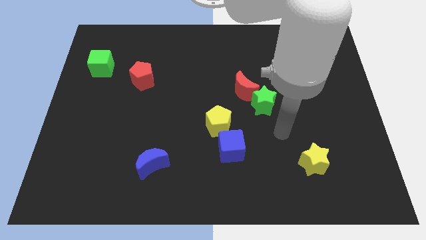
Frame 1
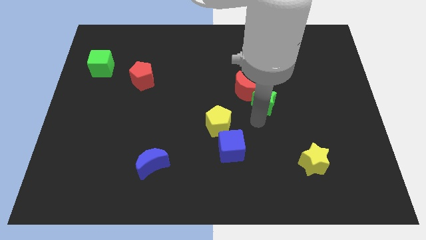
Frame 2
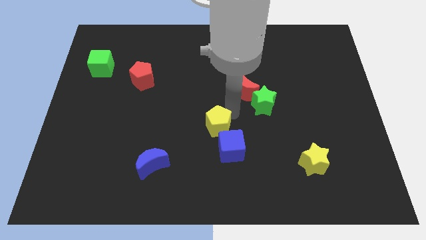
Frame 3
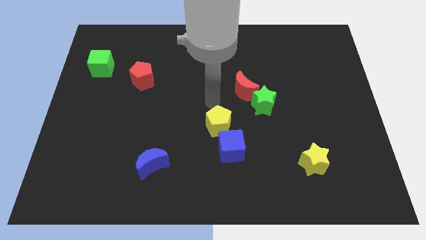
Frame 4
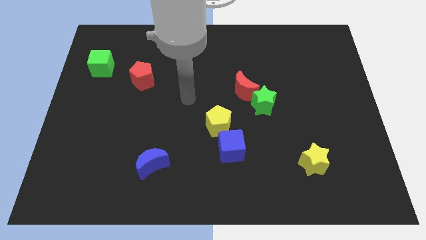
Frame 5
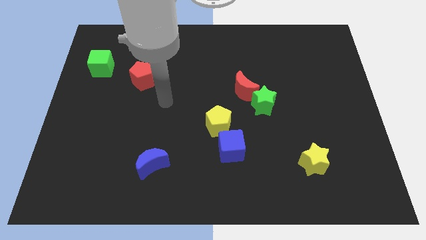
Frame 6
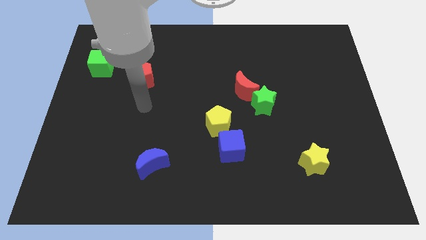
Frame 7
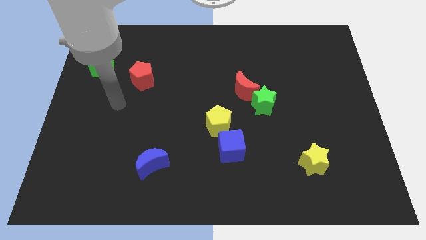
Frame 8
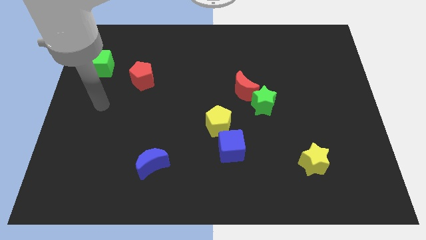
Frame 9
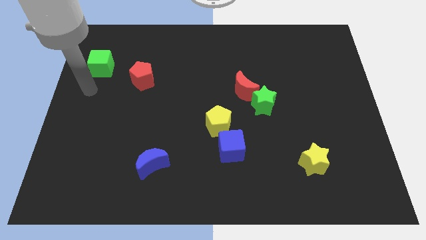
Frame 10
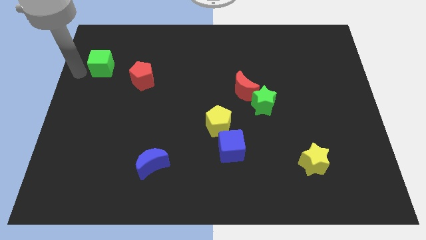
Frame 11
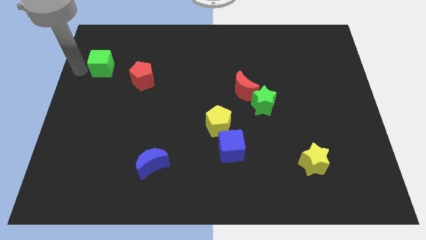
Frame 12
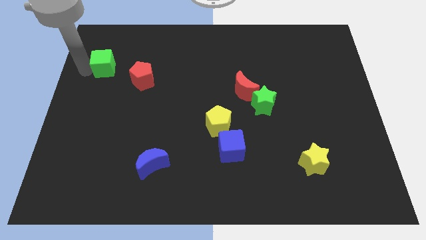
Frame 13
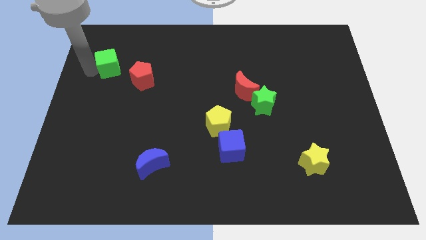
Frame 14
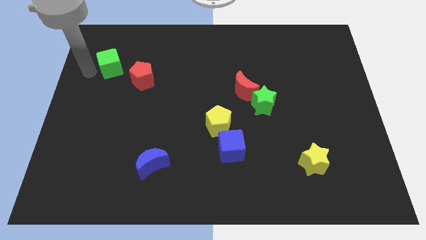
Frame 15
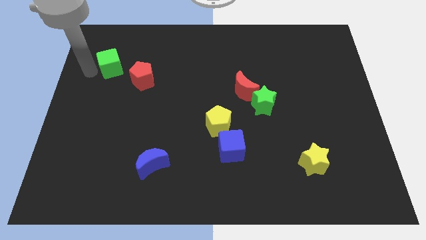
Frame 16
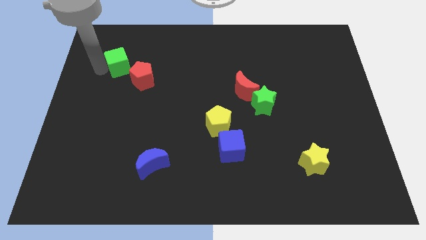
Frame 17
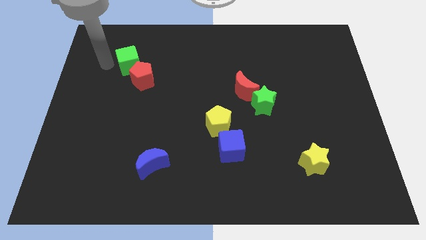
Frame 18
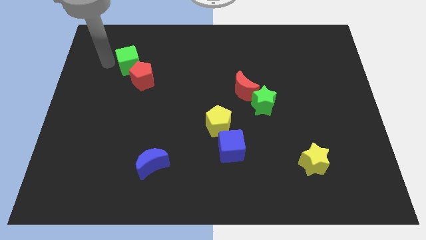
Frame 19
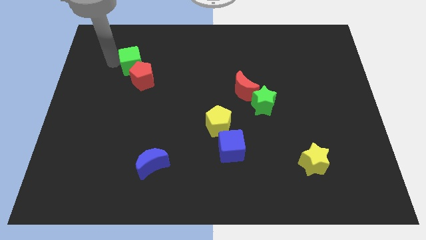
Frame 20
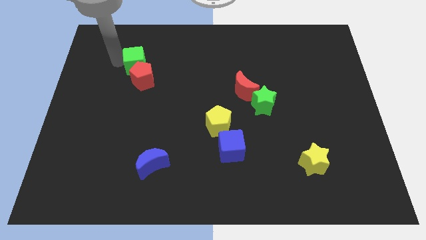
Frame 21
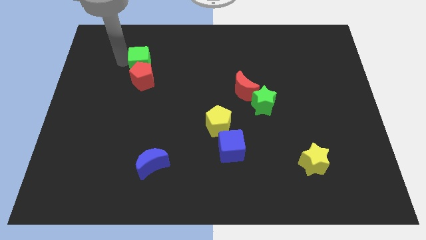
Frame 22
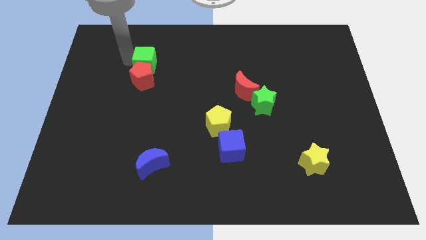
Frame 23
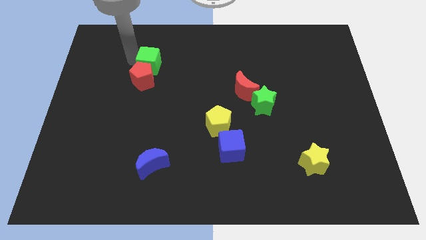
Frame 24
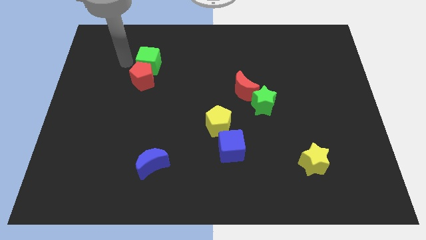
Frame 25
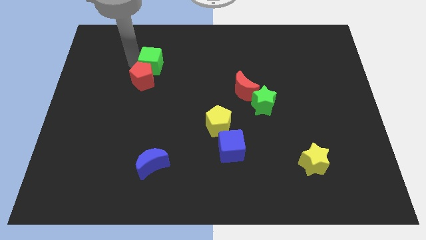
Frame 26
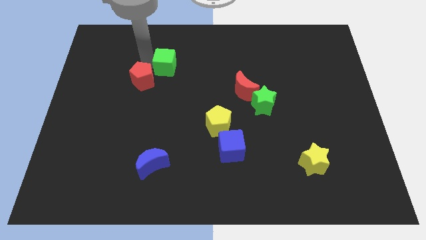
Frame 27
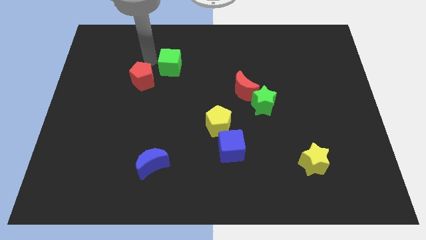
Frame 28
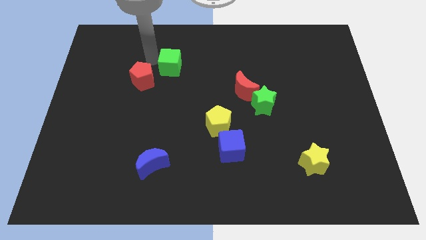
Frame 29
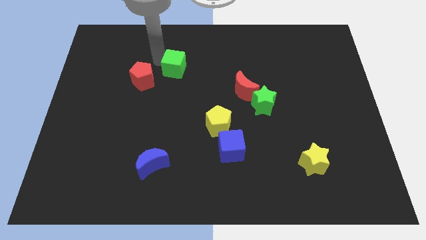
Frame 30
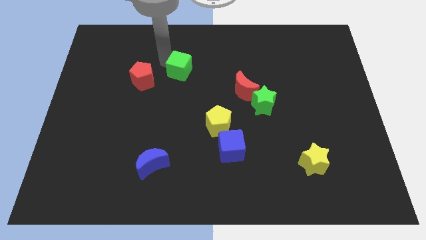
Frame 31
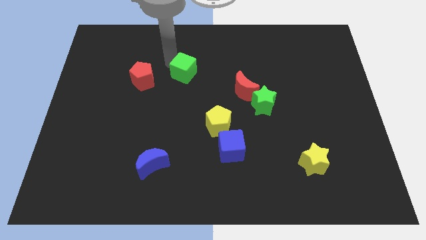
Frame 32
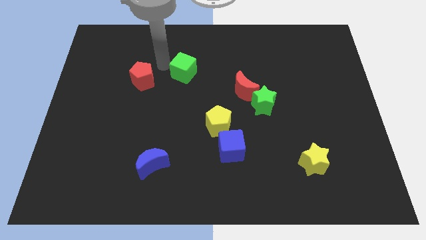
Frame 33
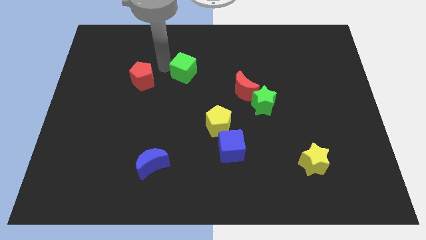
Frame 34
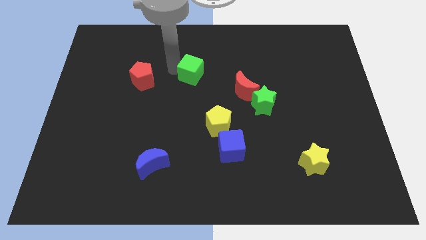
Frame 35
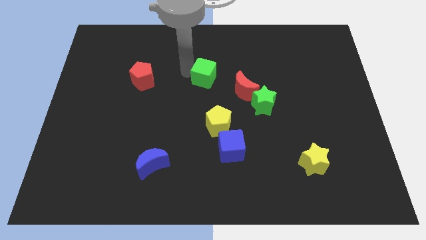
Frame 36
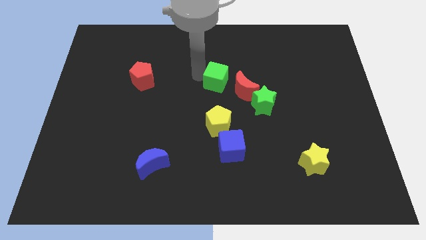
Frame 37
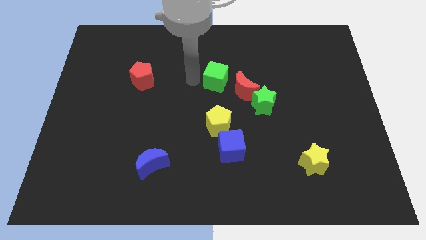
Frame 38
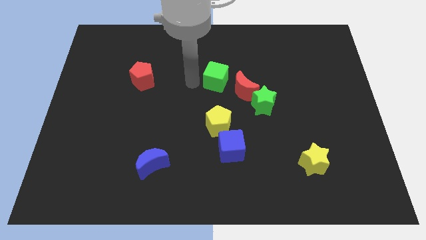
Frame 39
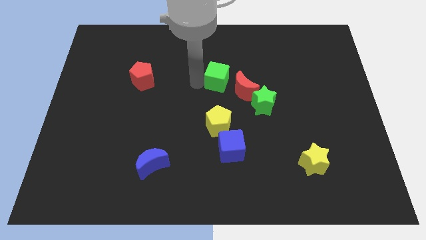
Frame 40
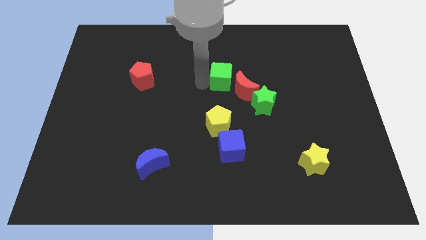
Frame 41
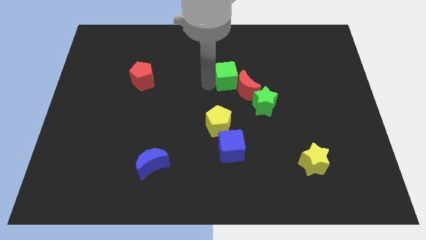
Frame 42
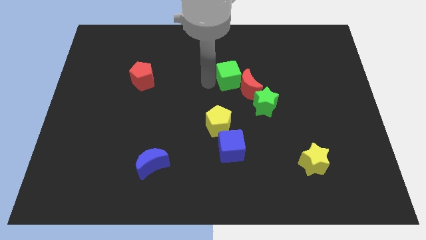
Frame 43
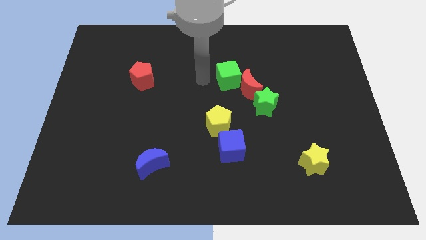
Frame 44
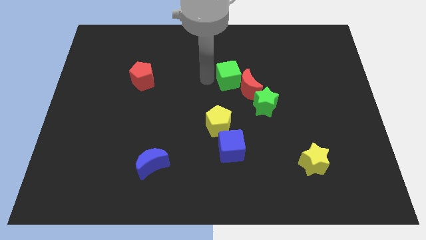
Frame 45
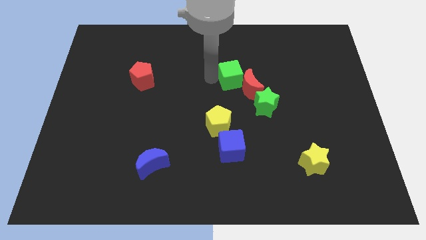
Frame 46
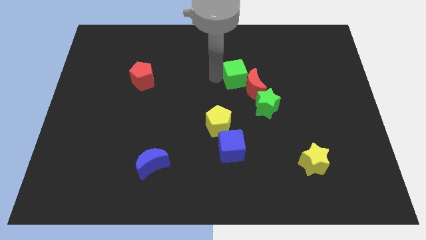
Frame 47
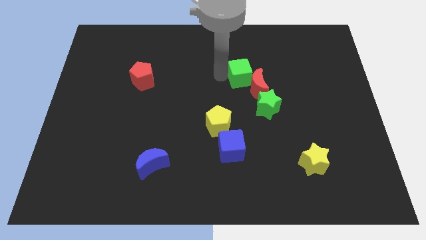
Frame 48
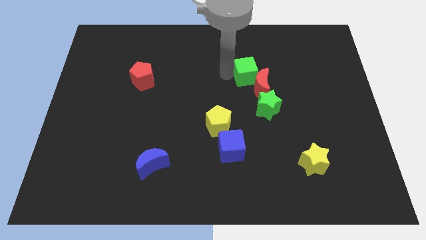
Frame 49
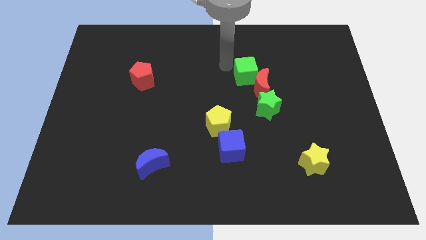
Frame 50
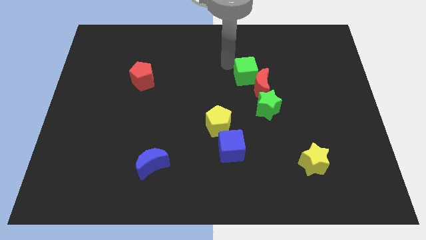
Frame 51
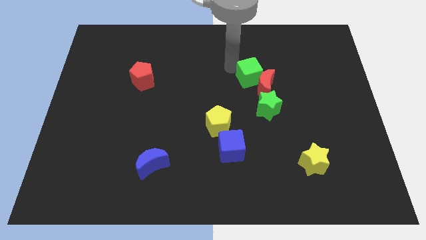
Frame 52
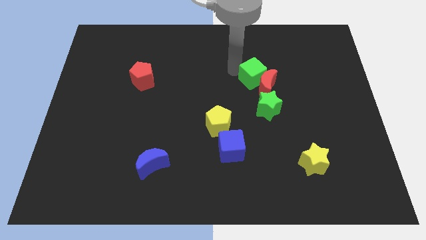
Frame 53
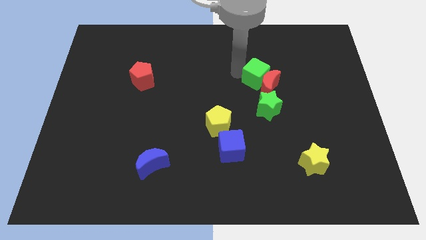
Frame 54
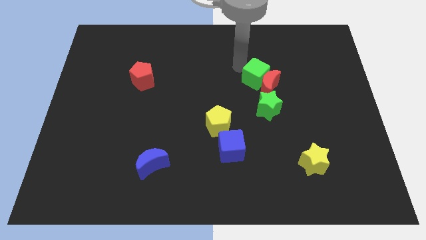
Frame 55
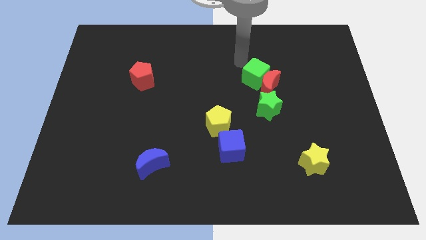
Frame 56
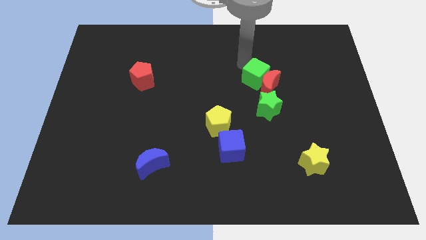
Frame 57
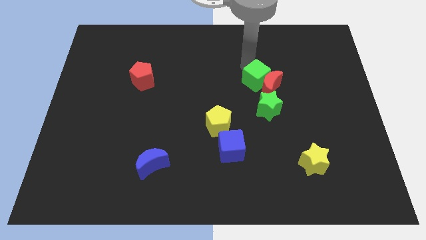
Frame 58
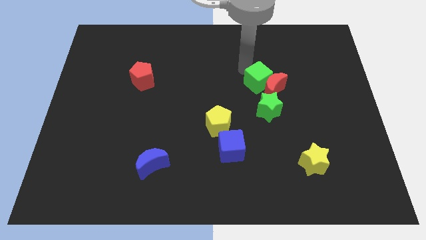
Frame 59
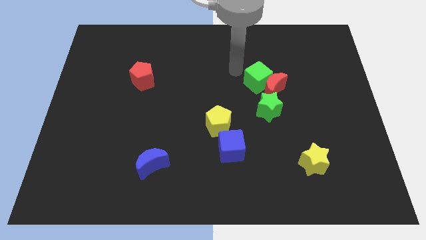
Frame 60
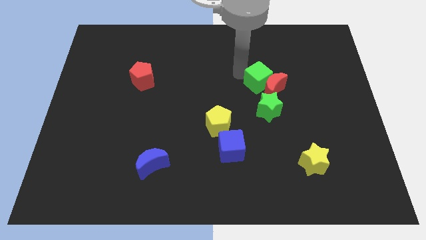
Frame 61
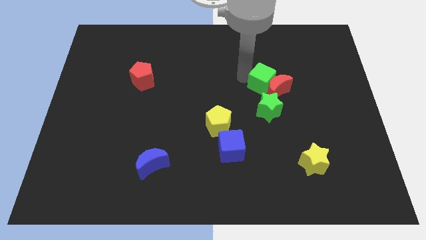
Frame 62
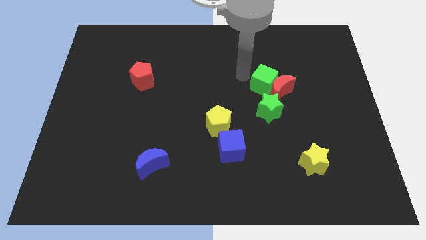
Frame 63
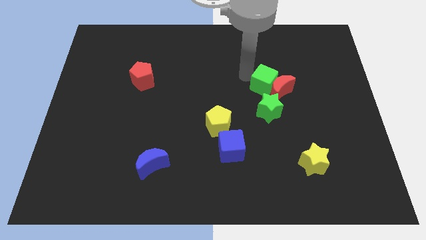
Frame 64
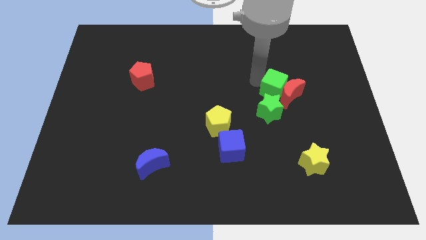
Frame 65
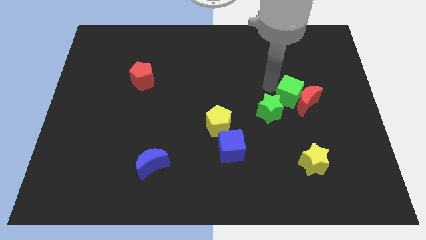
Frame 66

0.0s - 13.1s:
push the green cube to the right side of the green star

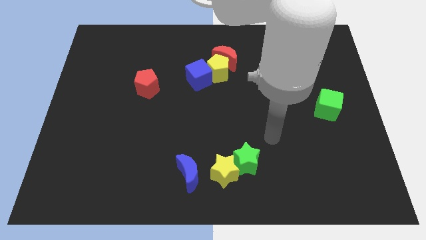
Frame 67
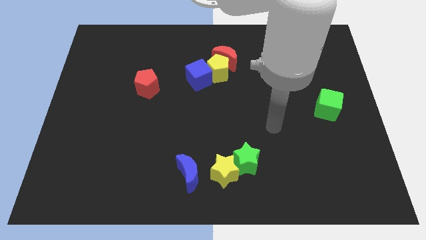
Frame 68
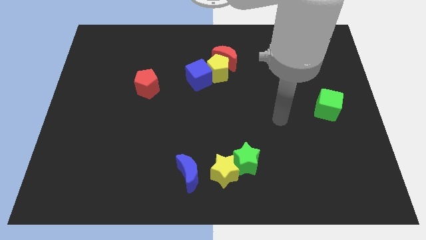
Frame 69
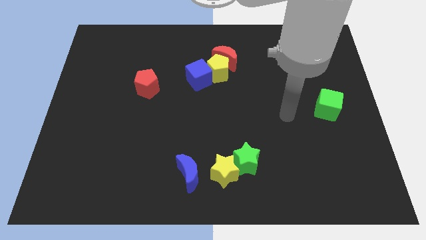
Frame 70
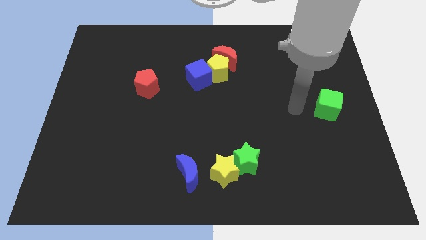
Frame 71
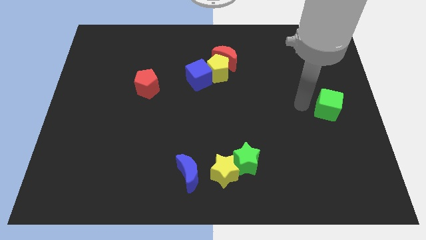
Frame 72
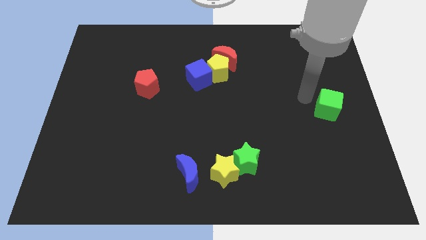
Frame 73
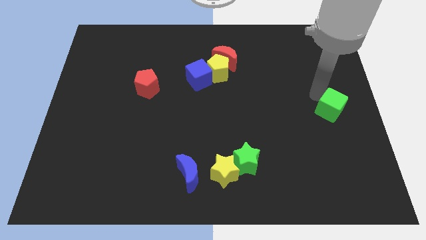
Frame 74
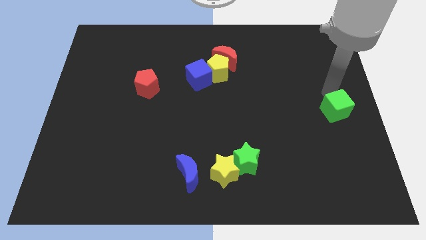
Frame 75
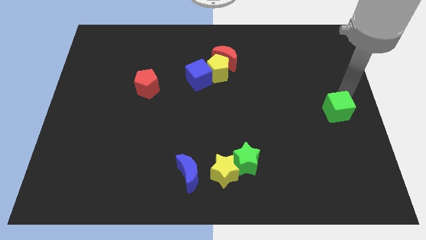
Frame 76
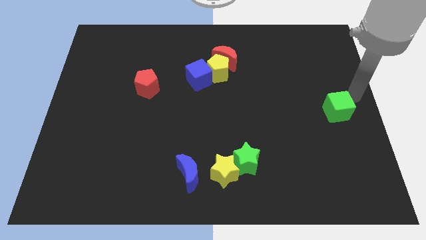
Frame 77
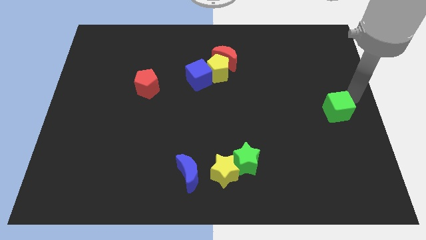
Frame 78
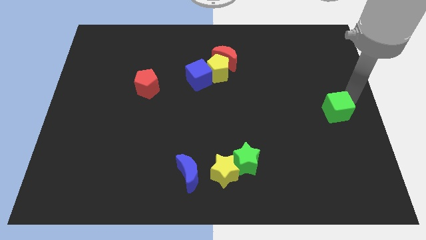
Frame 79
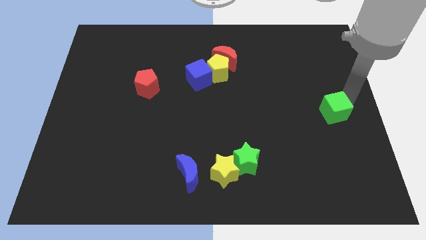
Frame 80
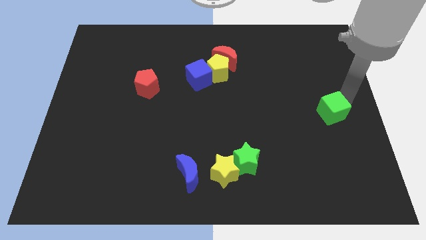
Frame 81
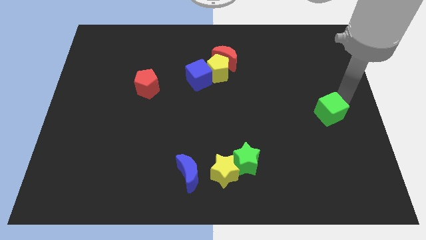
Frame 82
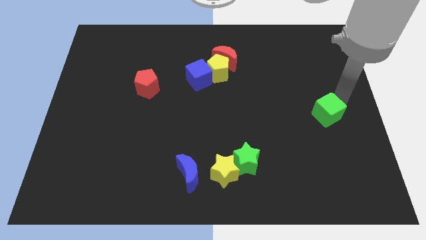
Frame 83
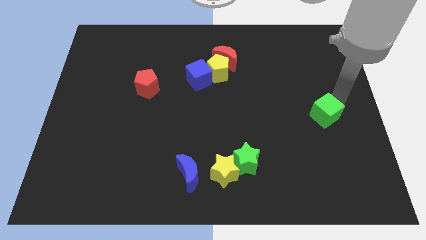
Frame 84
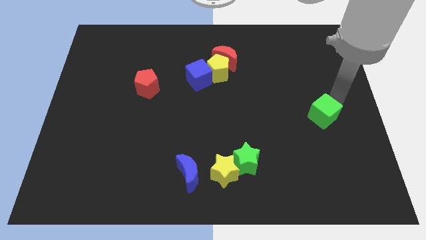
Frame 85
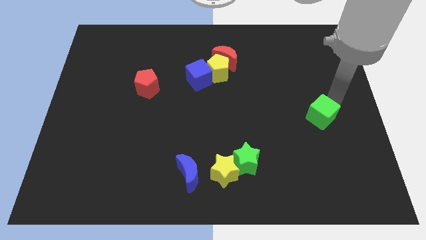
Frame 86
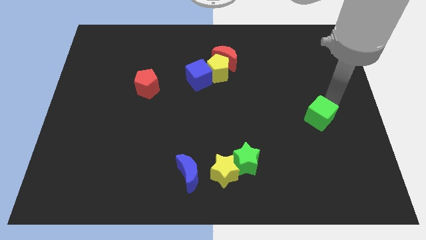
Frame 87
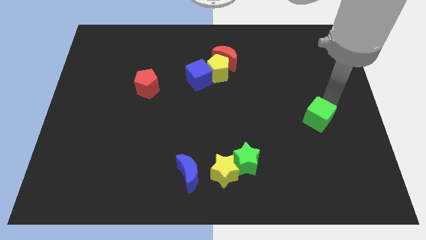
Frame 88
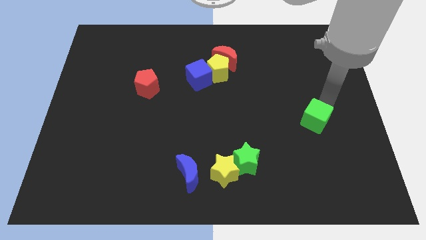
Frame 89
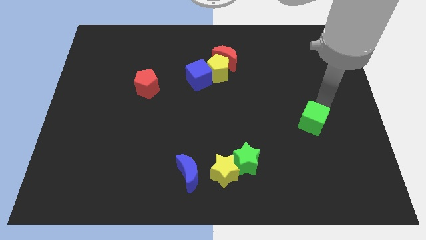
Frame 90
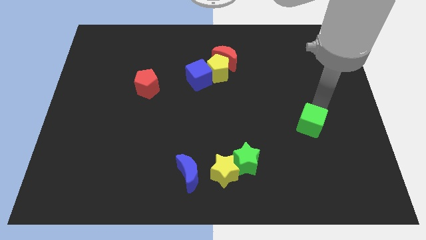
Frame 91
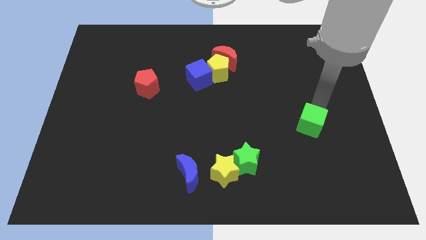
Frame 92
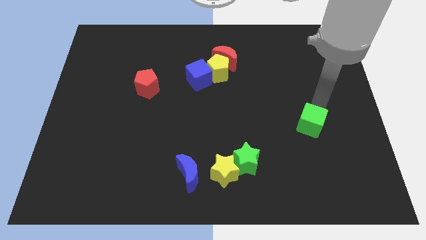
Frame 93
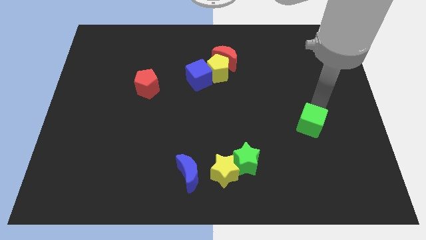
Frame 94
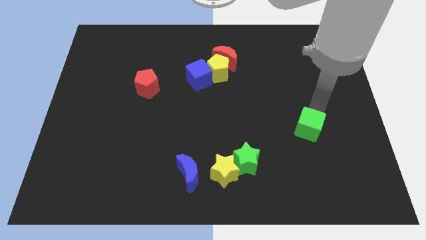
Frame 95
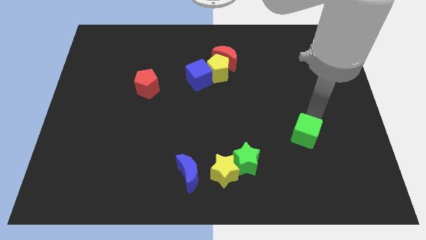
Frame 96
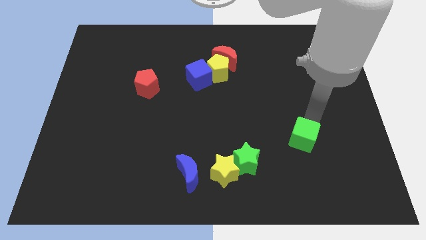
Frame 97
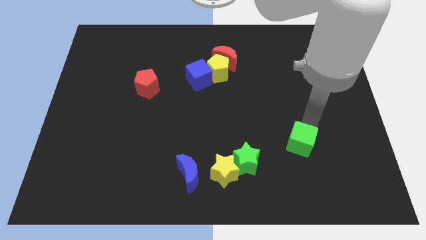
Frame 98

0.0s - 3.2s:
push the green cube just right of the green star
